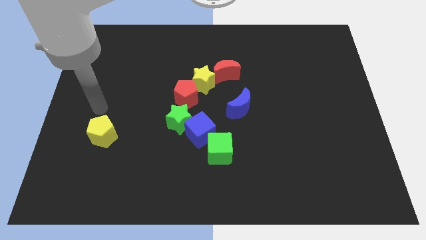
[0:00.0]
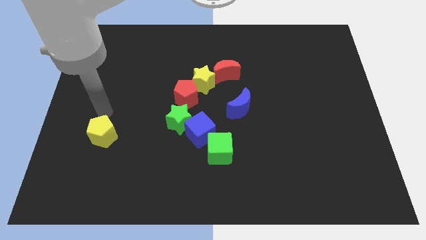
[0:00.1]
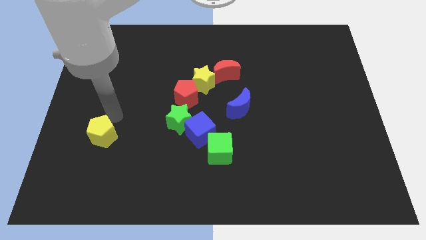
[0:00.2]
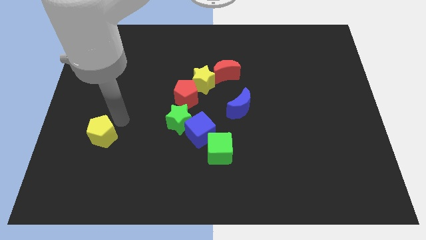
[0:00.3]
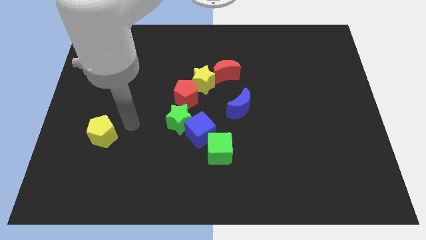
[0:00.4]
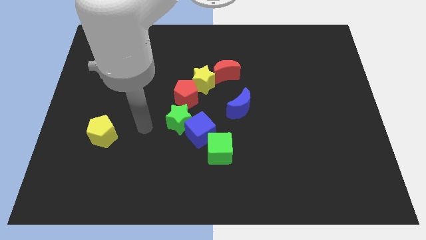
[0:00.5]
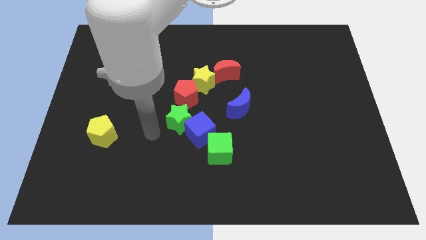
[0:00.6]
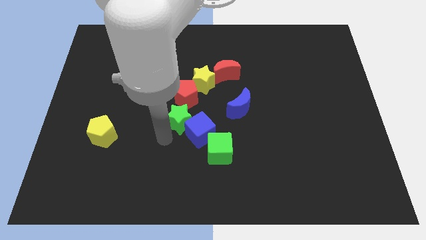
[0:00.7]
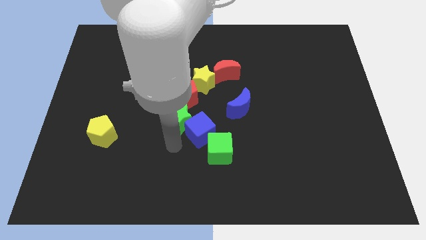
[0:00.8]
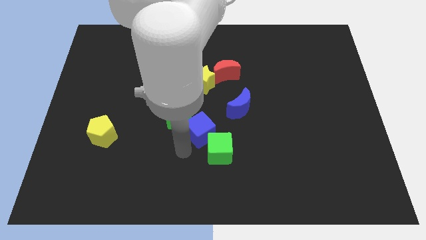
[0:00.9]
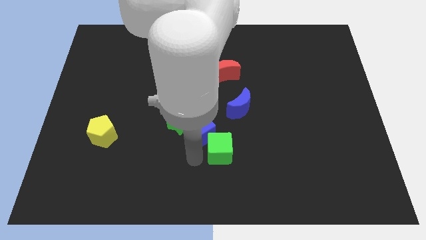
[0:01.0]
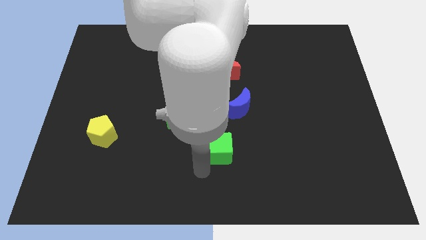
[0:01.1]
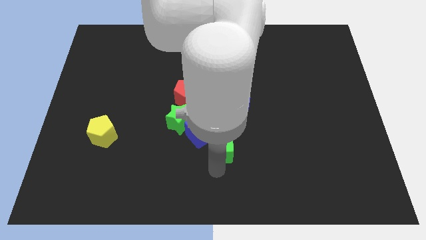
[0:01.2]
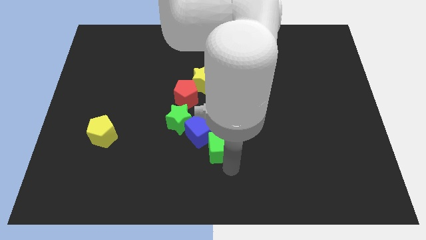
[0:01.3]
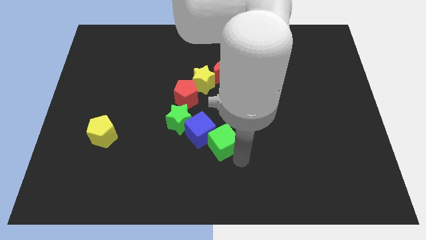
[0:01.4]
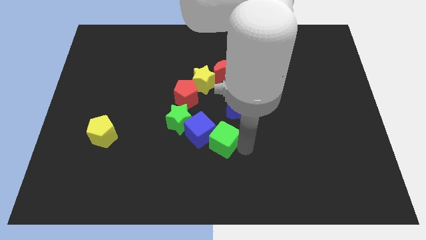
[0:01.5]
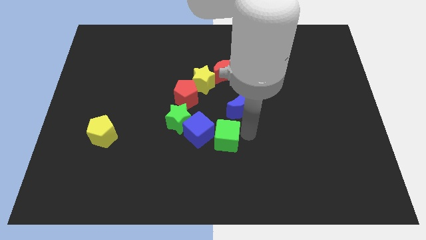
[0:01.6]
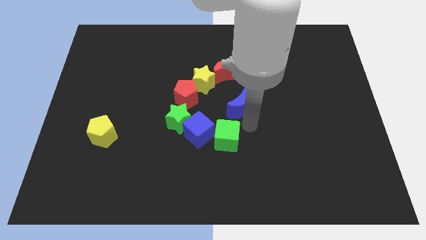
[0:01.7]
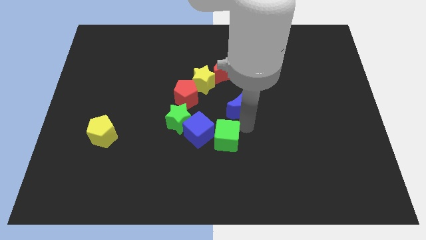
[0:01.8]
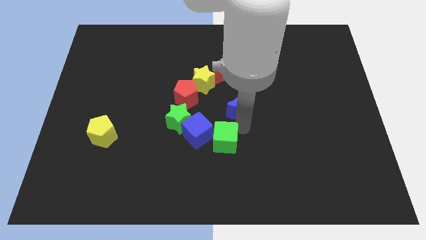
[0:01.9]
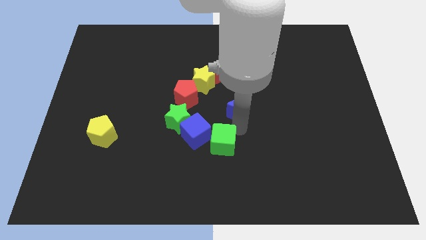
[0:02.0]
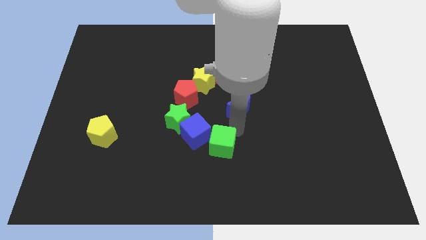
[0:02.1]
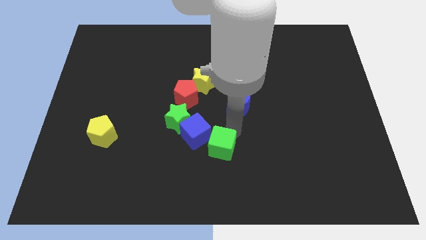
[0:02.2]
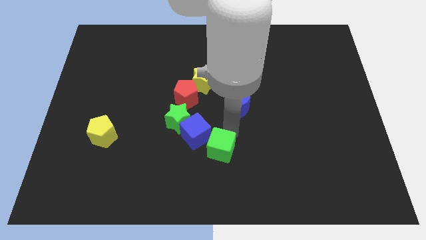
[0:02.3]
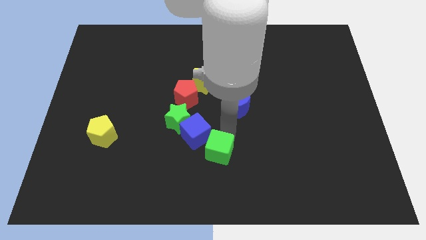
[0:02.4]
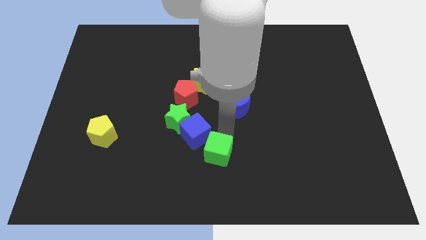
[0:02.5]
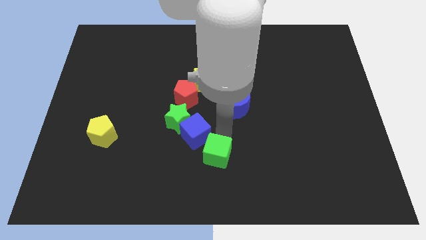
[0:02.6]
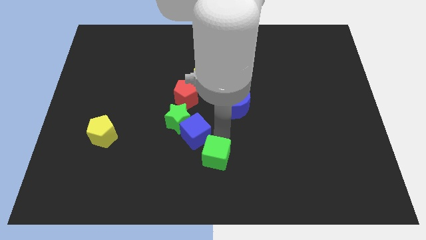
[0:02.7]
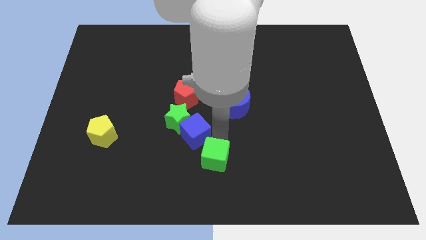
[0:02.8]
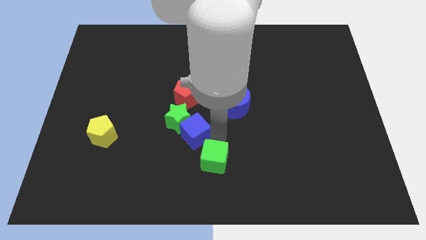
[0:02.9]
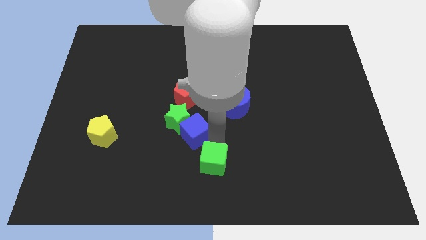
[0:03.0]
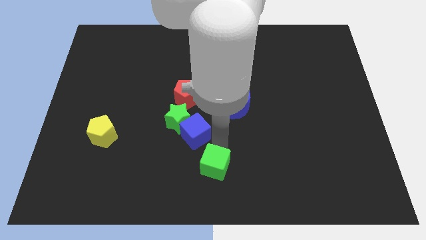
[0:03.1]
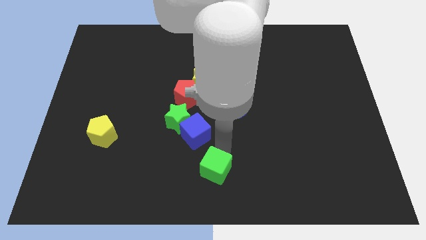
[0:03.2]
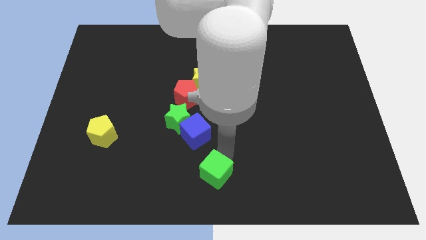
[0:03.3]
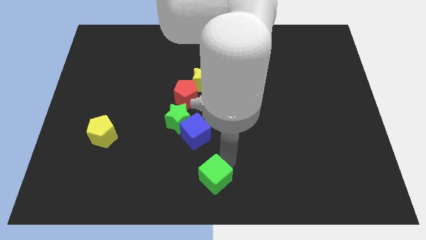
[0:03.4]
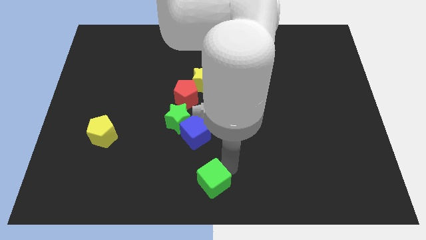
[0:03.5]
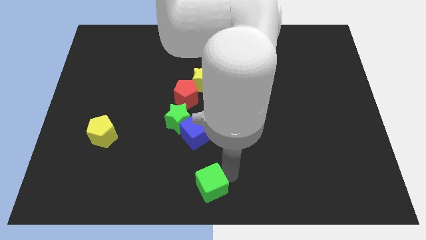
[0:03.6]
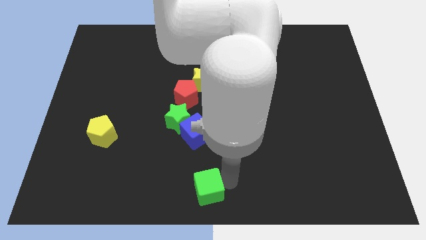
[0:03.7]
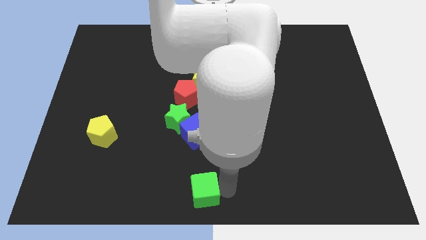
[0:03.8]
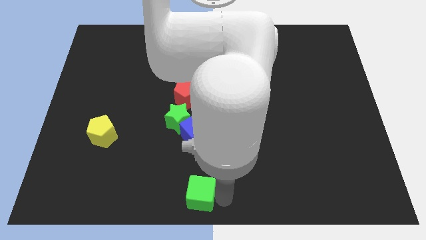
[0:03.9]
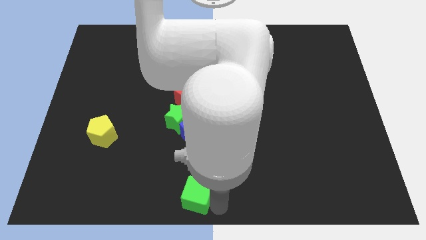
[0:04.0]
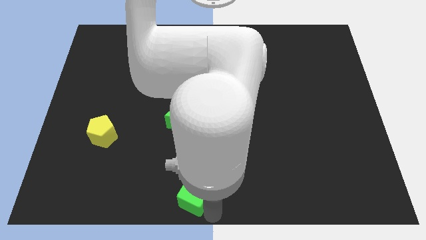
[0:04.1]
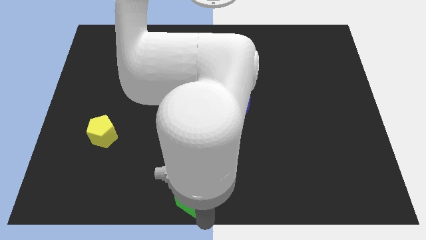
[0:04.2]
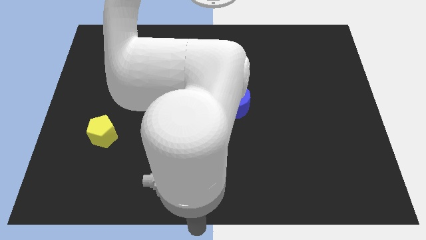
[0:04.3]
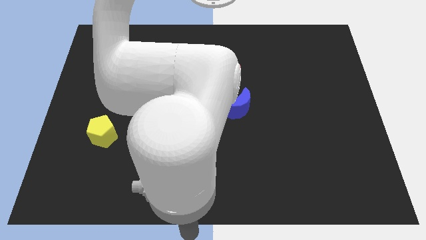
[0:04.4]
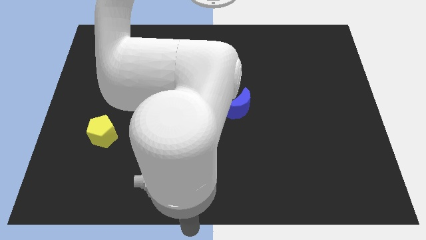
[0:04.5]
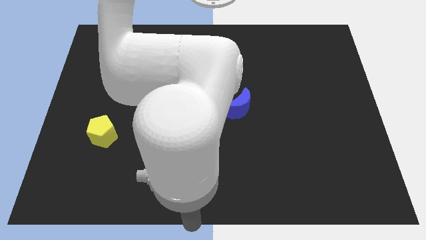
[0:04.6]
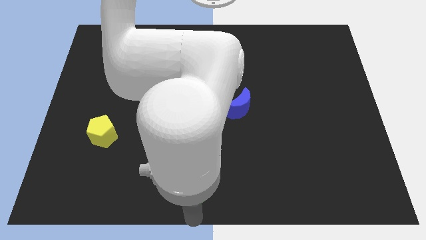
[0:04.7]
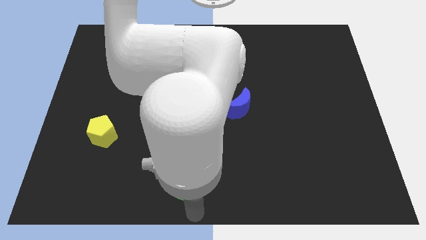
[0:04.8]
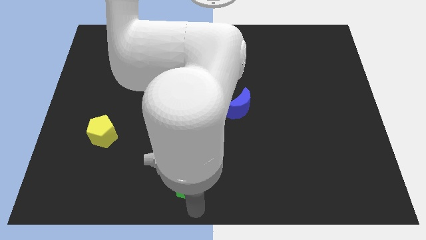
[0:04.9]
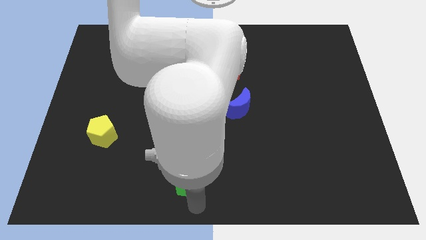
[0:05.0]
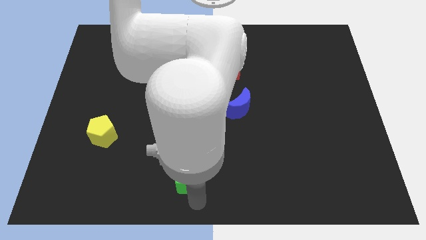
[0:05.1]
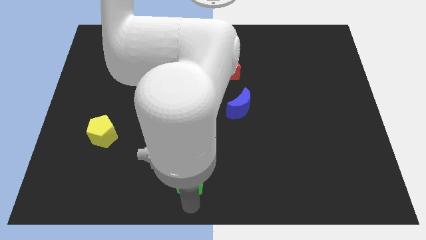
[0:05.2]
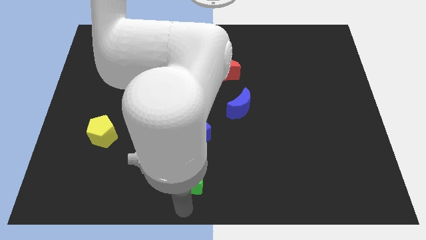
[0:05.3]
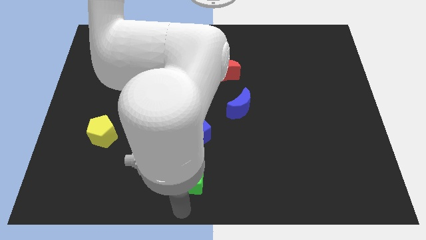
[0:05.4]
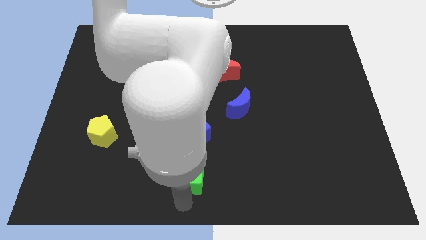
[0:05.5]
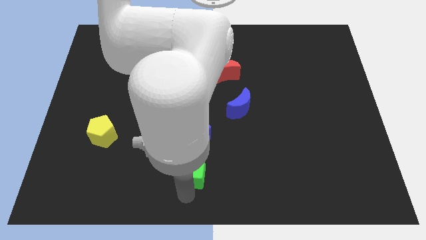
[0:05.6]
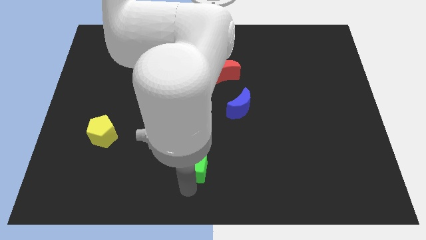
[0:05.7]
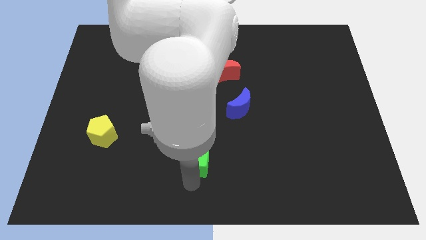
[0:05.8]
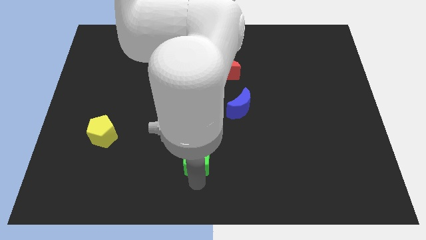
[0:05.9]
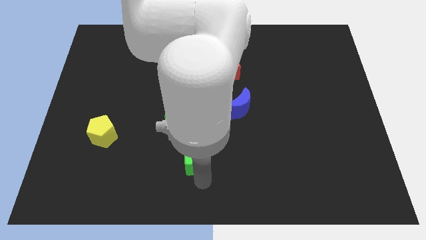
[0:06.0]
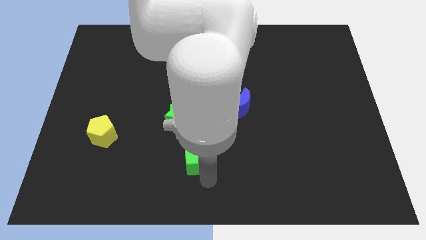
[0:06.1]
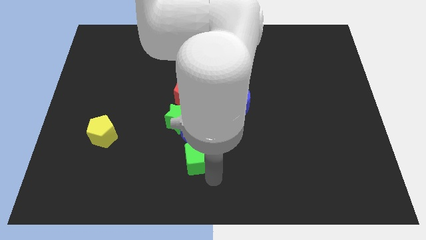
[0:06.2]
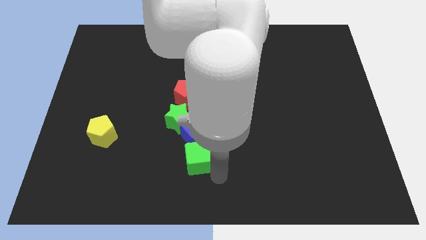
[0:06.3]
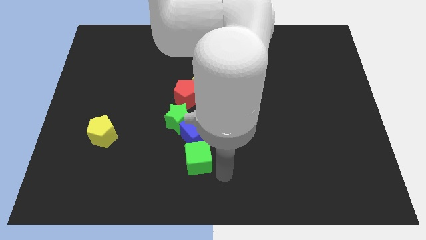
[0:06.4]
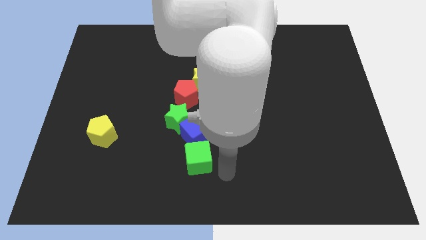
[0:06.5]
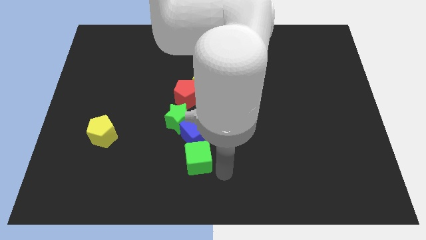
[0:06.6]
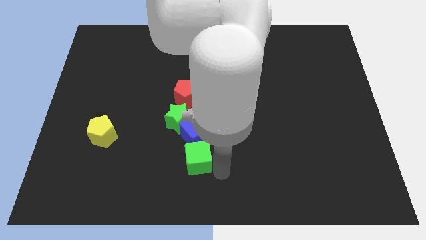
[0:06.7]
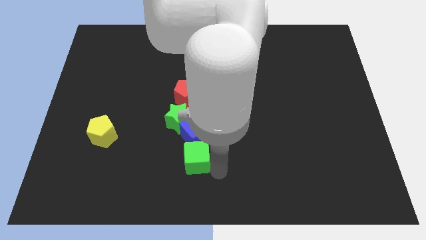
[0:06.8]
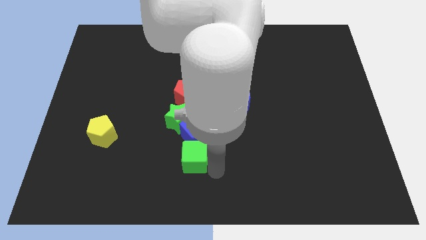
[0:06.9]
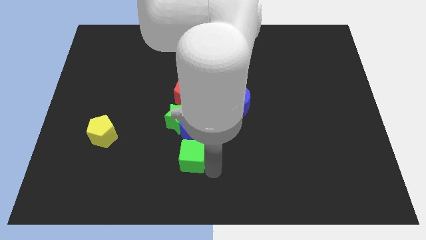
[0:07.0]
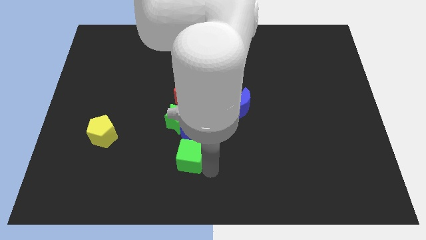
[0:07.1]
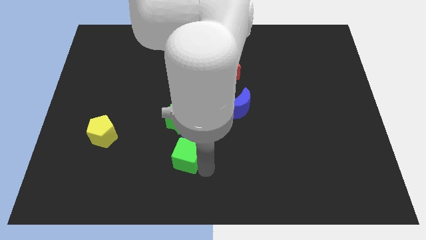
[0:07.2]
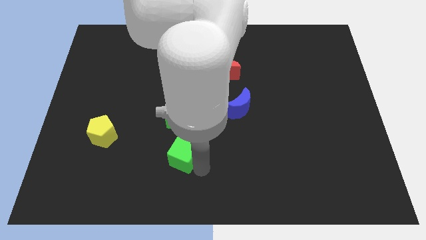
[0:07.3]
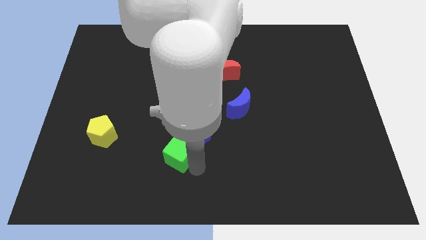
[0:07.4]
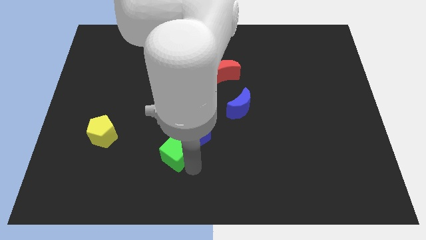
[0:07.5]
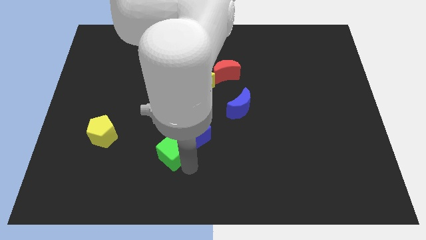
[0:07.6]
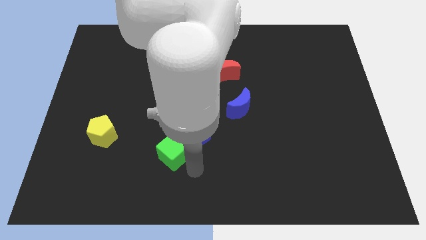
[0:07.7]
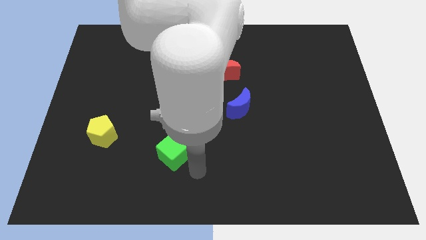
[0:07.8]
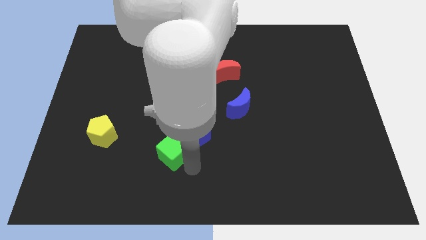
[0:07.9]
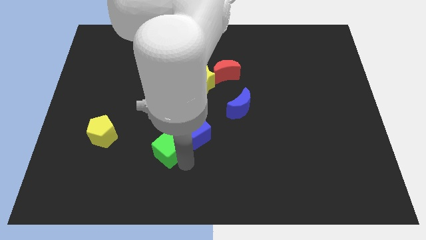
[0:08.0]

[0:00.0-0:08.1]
move the green cube diagonally down and to the left of the green star
